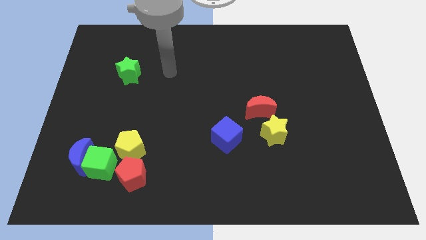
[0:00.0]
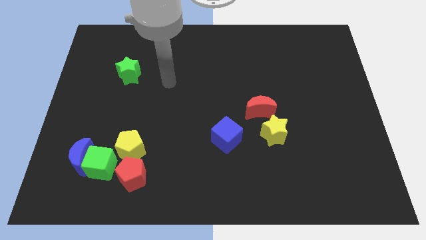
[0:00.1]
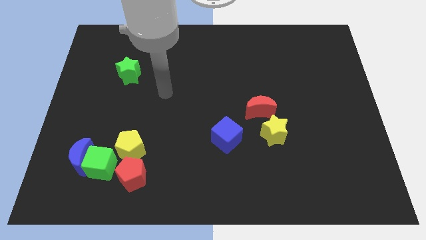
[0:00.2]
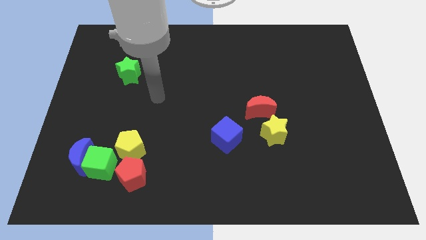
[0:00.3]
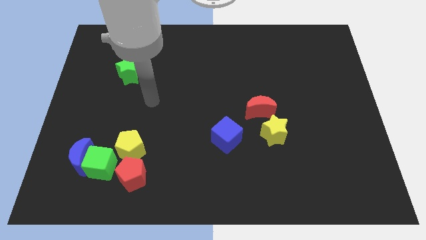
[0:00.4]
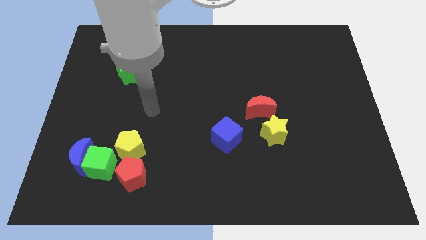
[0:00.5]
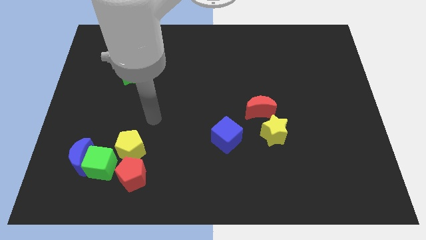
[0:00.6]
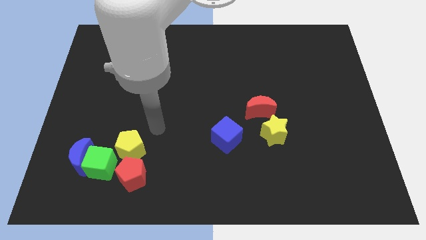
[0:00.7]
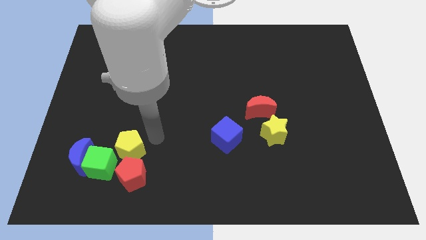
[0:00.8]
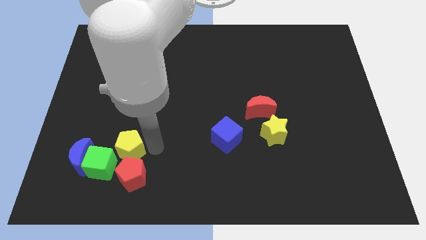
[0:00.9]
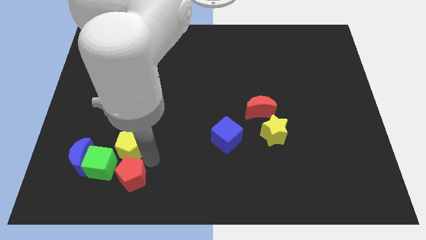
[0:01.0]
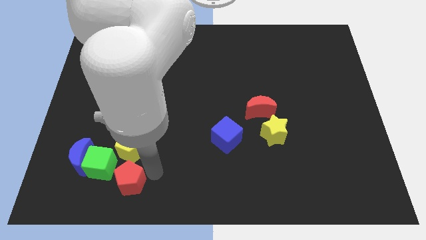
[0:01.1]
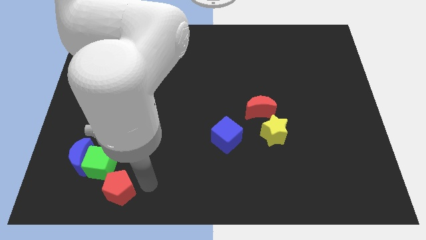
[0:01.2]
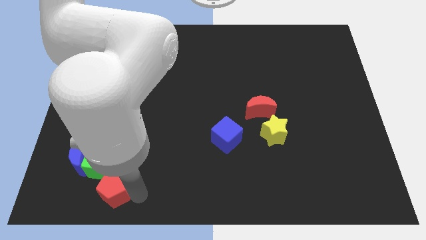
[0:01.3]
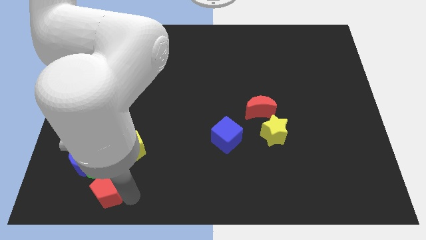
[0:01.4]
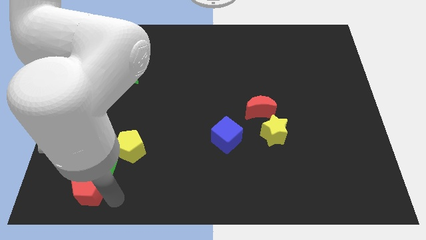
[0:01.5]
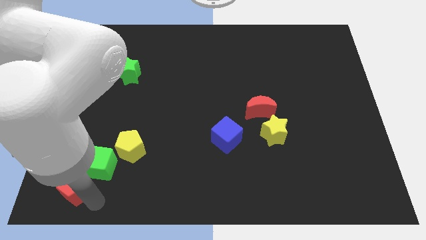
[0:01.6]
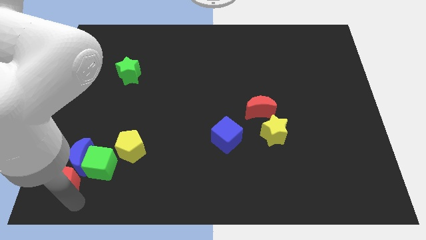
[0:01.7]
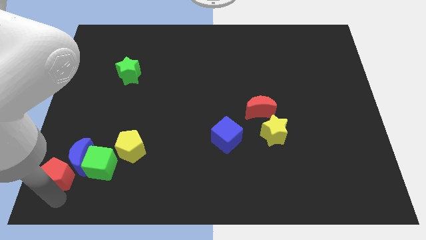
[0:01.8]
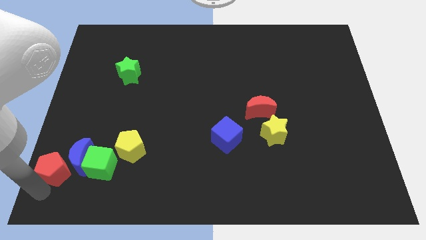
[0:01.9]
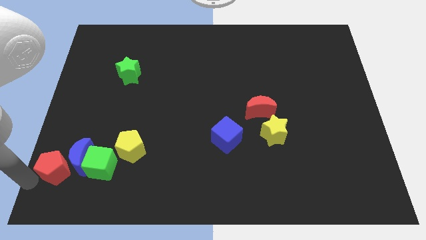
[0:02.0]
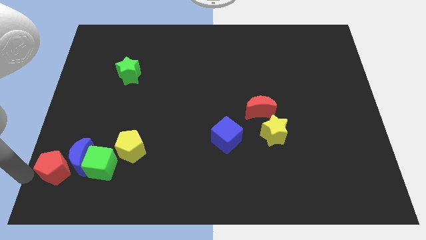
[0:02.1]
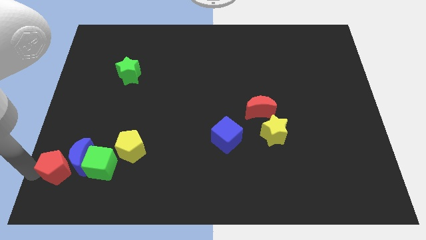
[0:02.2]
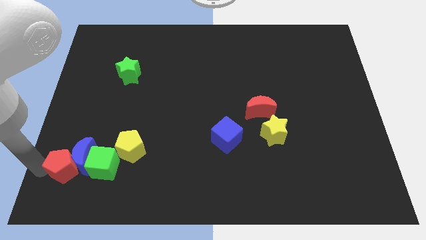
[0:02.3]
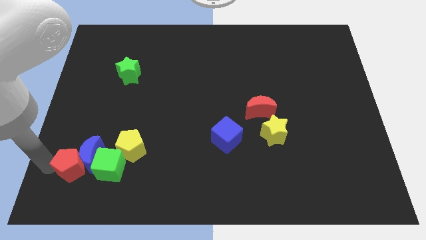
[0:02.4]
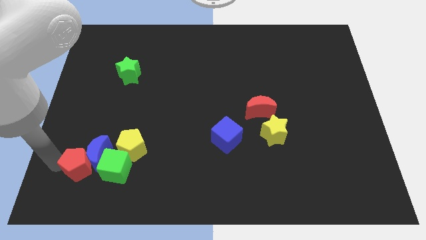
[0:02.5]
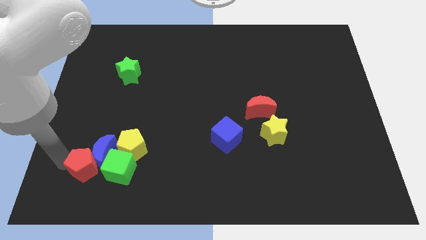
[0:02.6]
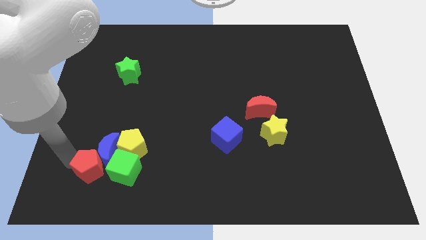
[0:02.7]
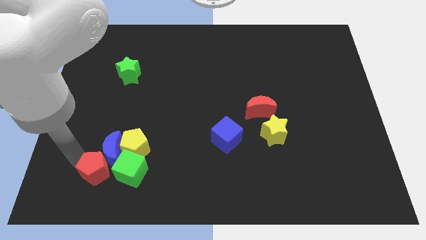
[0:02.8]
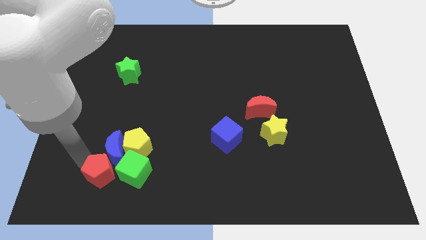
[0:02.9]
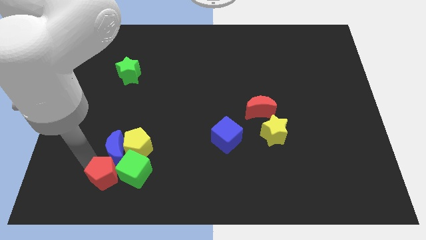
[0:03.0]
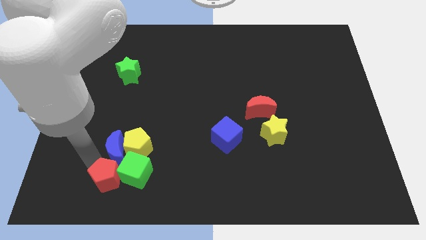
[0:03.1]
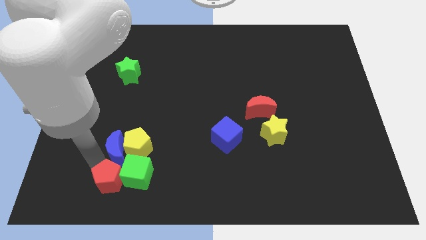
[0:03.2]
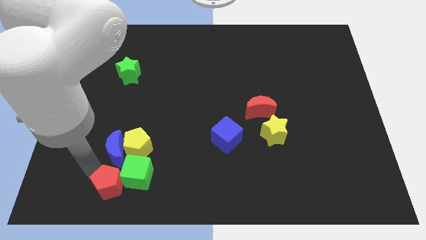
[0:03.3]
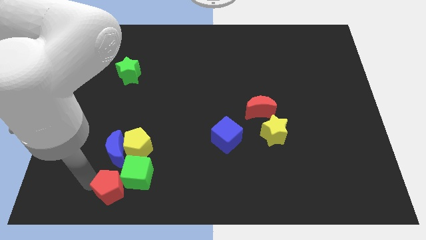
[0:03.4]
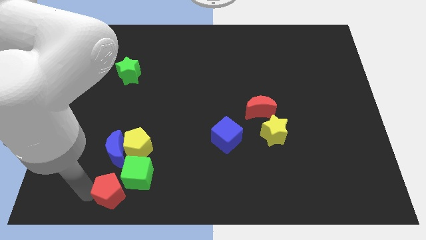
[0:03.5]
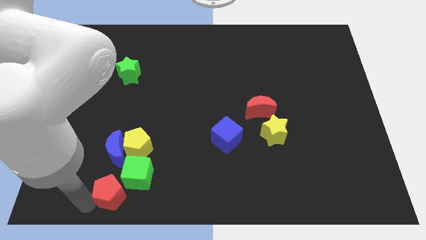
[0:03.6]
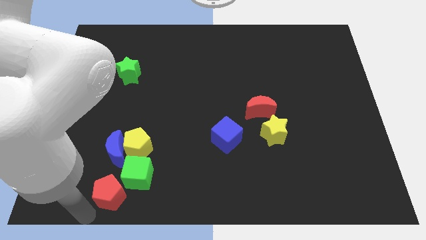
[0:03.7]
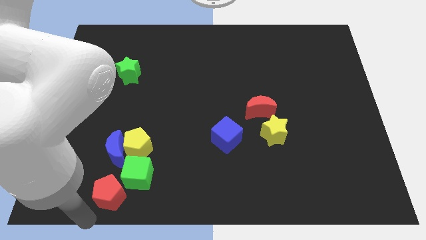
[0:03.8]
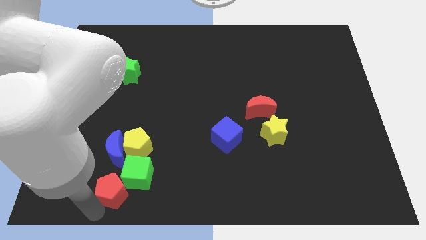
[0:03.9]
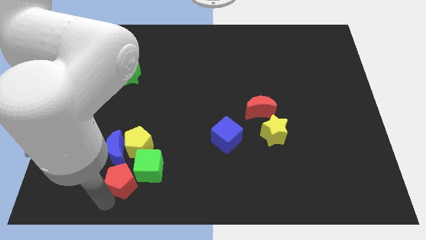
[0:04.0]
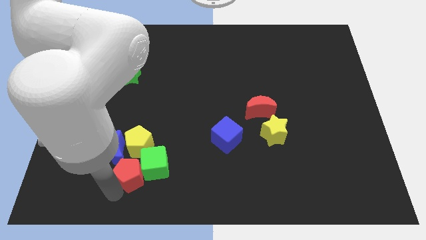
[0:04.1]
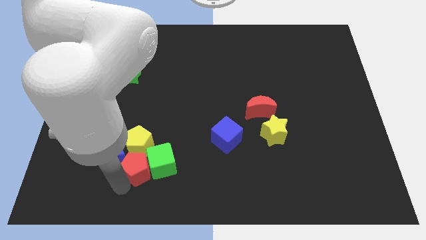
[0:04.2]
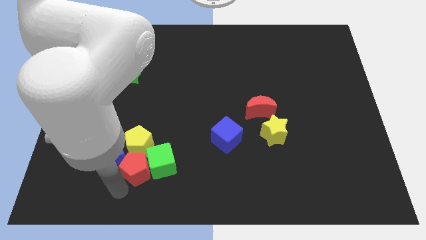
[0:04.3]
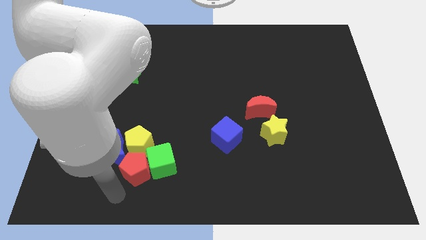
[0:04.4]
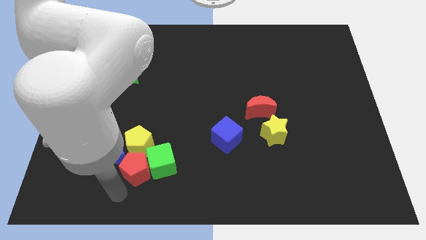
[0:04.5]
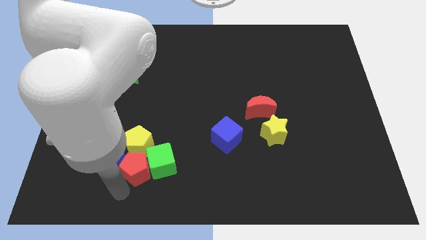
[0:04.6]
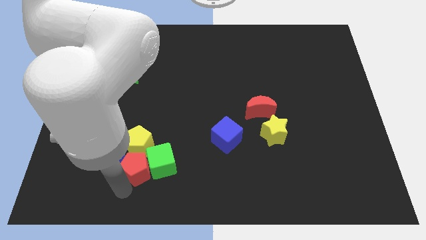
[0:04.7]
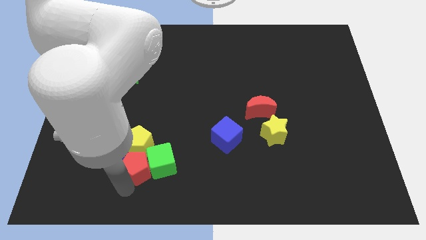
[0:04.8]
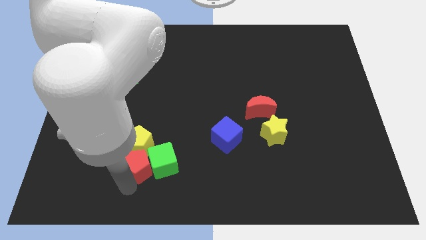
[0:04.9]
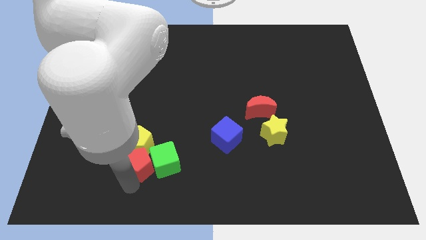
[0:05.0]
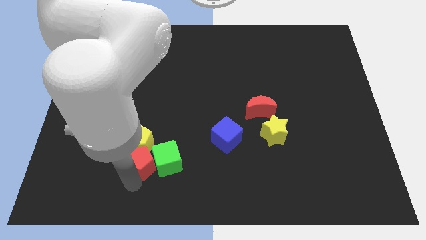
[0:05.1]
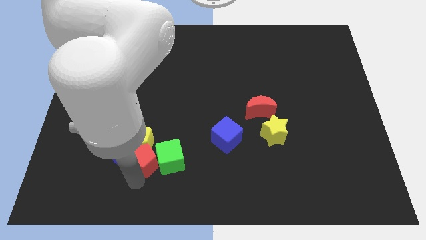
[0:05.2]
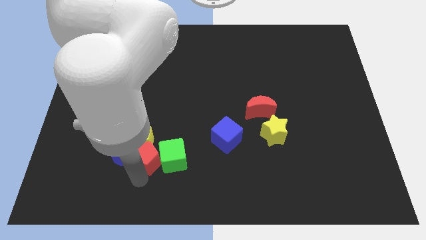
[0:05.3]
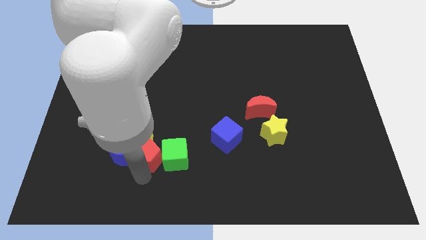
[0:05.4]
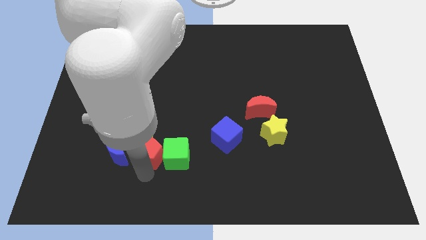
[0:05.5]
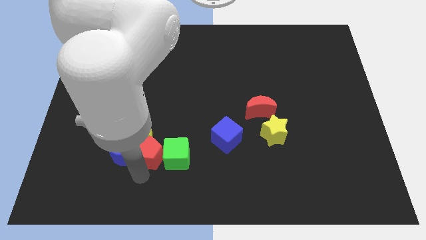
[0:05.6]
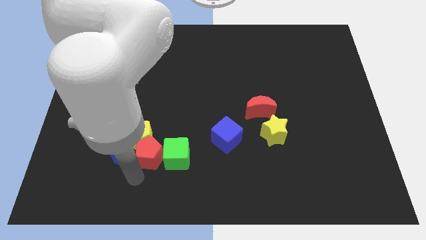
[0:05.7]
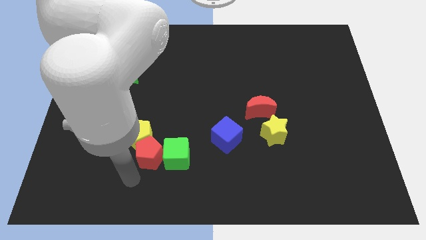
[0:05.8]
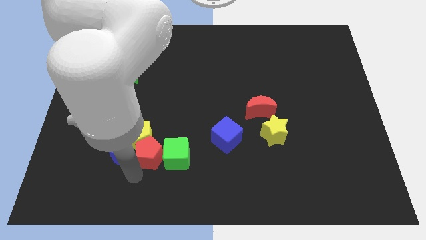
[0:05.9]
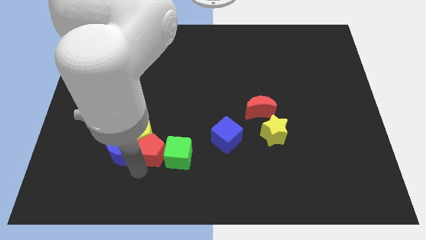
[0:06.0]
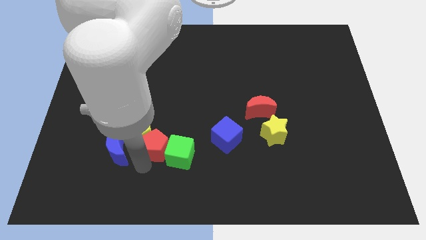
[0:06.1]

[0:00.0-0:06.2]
push the red pentagon a little bit upwards and to the right diagonally

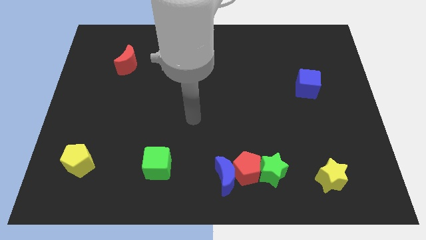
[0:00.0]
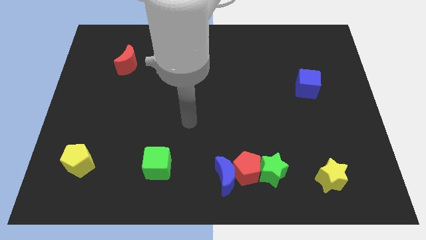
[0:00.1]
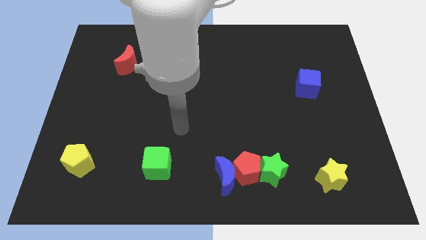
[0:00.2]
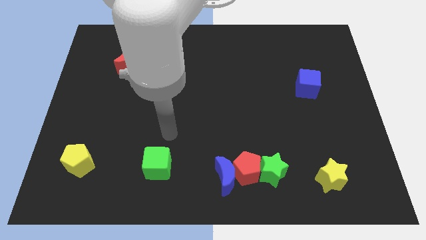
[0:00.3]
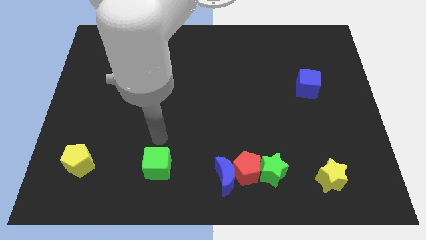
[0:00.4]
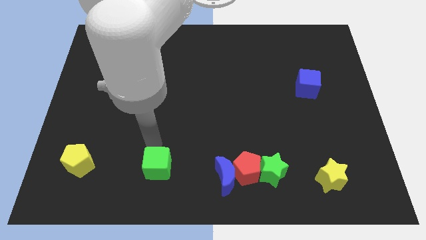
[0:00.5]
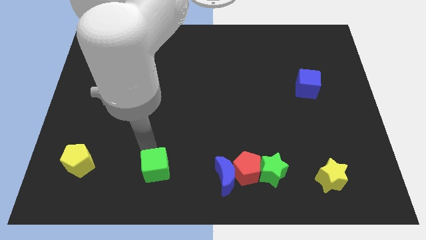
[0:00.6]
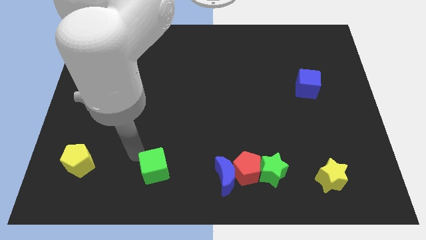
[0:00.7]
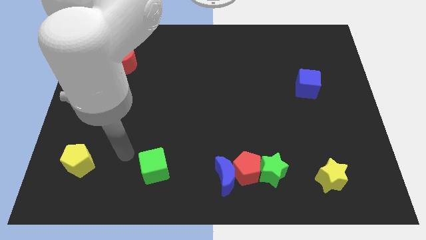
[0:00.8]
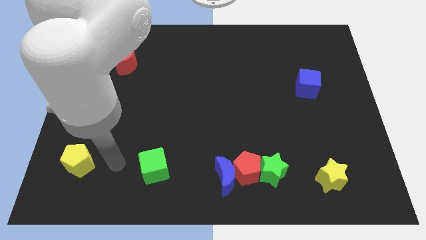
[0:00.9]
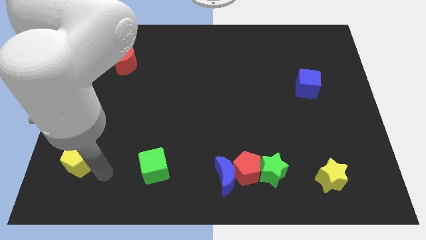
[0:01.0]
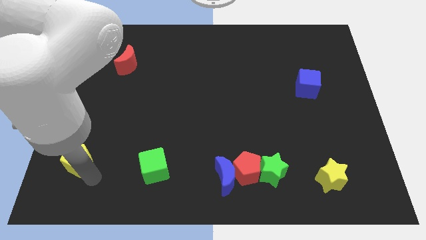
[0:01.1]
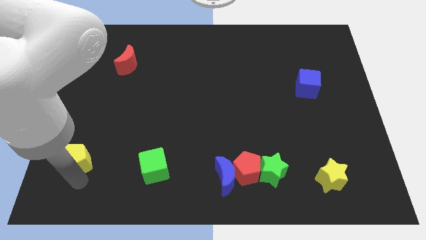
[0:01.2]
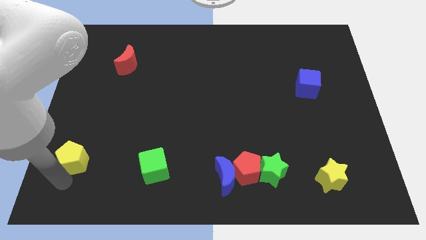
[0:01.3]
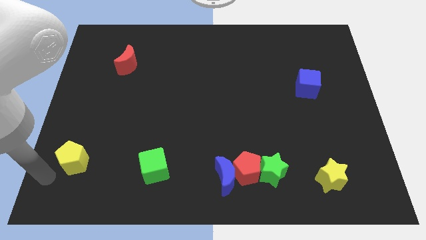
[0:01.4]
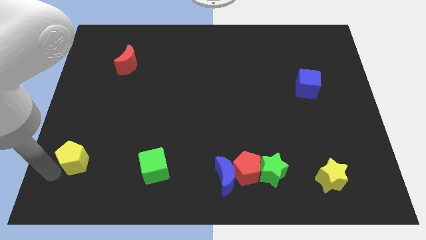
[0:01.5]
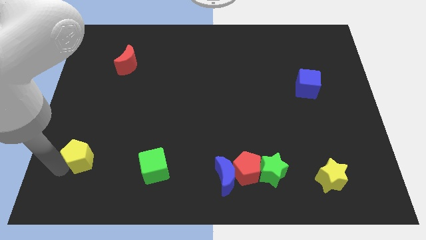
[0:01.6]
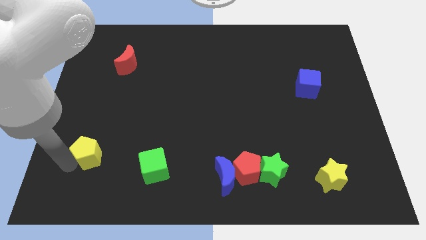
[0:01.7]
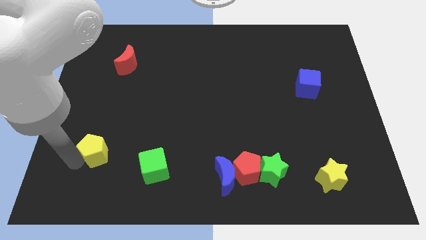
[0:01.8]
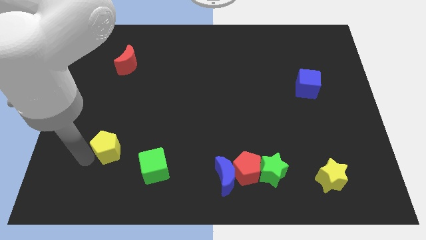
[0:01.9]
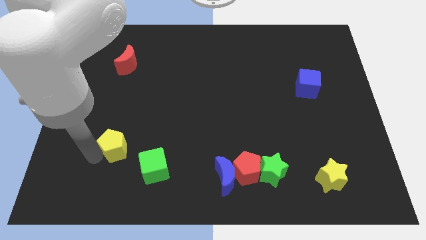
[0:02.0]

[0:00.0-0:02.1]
slightly slide the yellow pentagon up and then to the right
